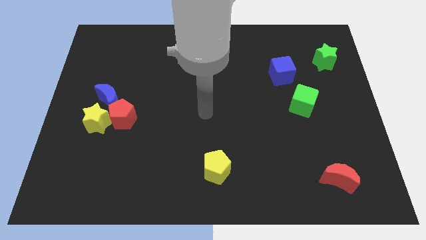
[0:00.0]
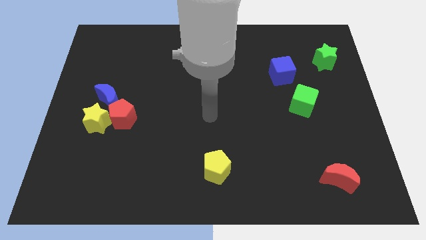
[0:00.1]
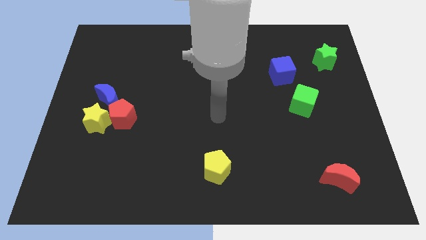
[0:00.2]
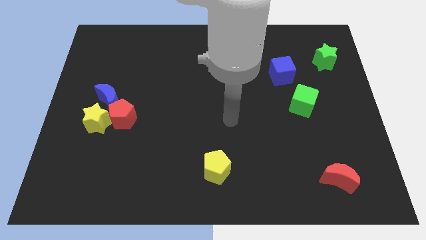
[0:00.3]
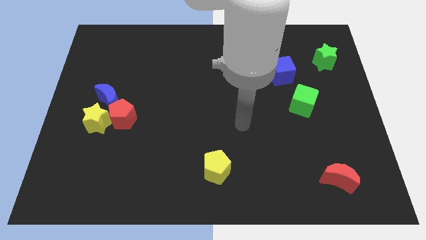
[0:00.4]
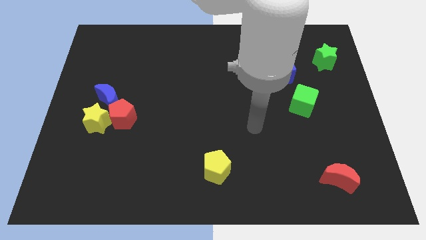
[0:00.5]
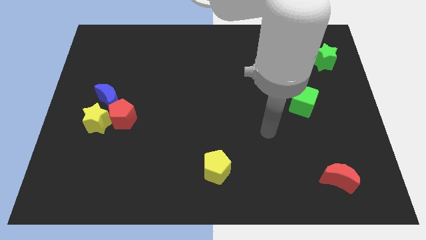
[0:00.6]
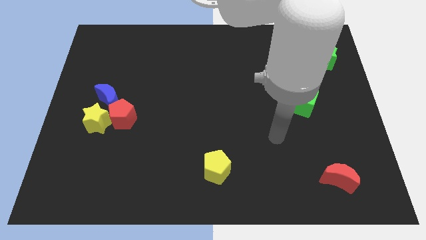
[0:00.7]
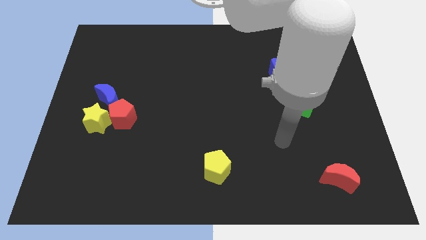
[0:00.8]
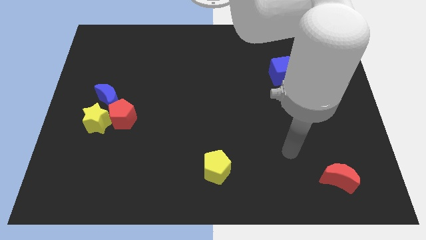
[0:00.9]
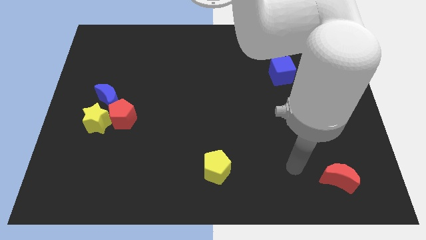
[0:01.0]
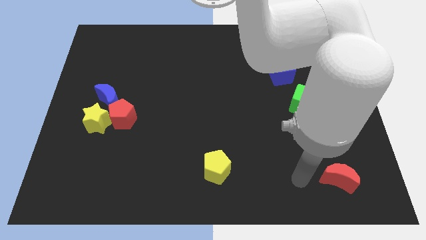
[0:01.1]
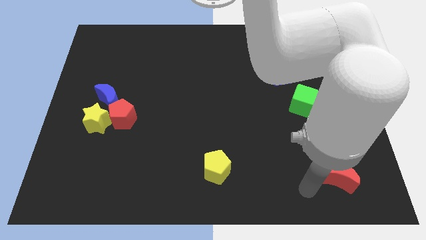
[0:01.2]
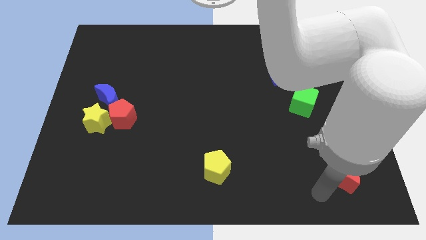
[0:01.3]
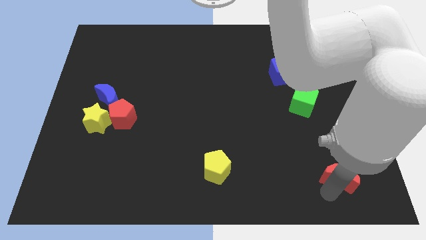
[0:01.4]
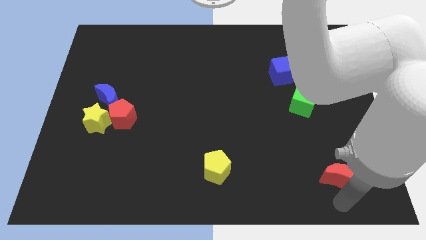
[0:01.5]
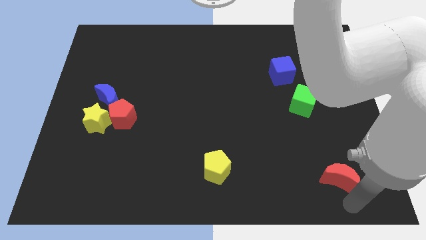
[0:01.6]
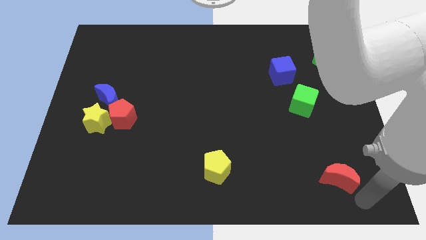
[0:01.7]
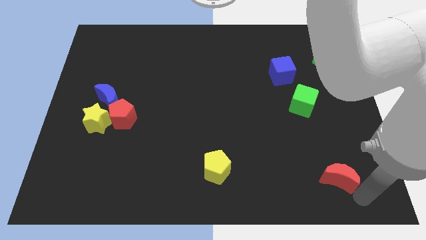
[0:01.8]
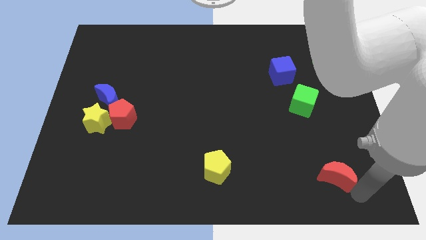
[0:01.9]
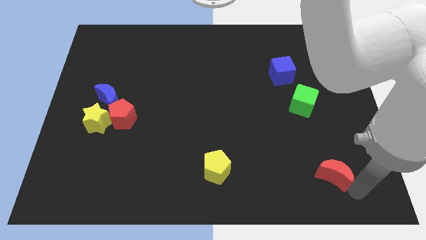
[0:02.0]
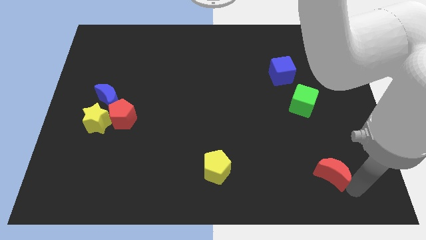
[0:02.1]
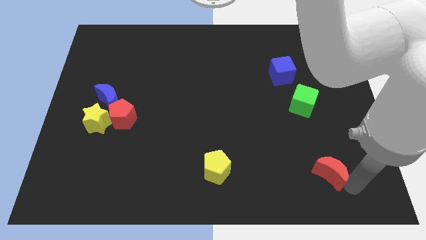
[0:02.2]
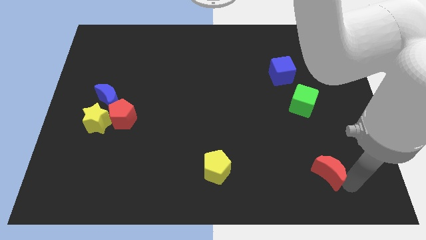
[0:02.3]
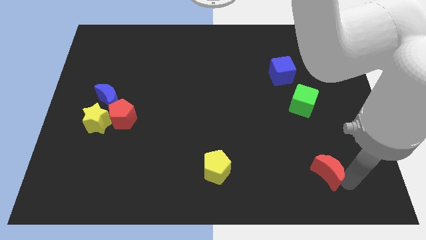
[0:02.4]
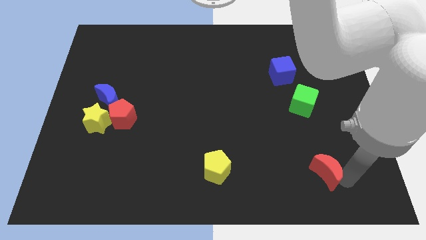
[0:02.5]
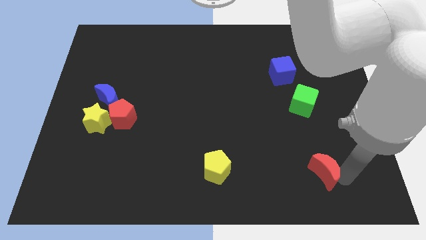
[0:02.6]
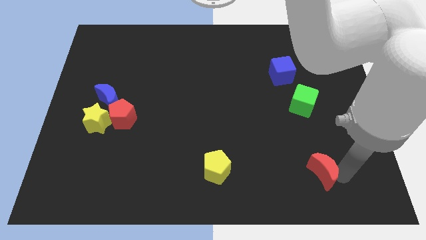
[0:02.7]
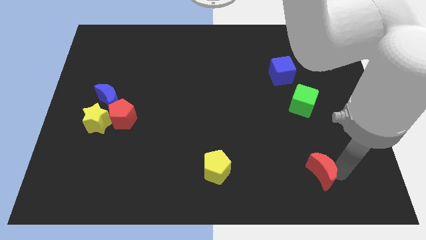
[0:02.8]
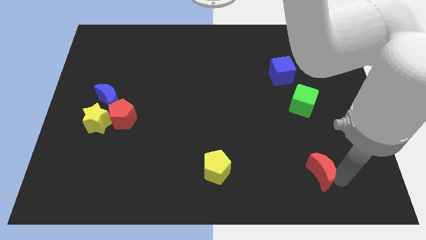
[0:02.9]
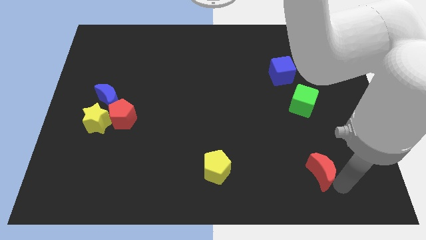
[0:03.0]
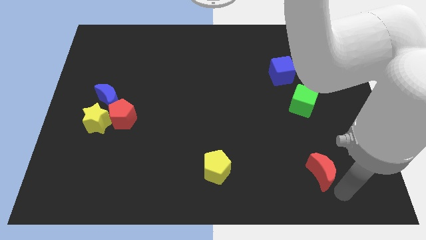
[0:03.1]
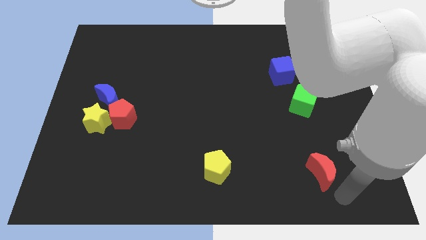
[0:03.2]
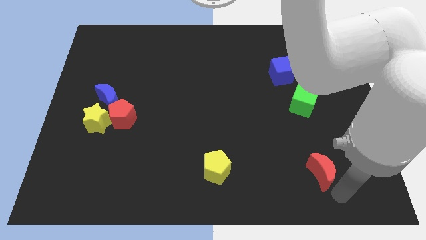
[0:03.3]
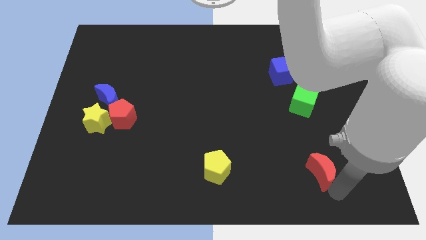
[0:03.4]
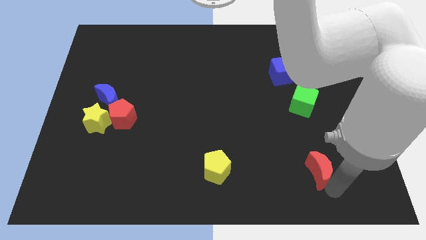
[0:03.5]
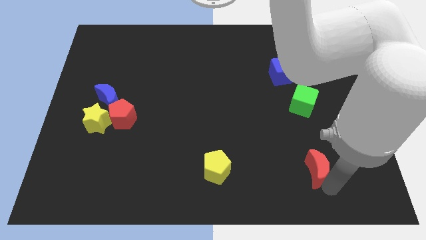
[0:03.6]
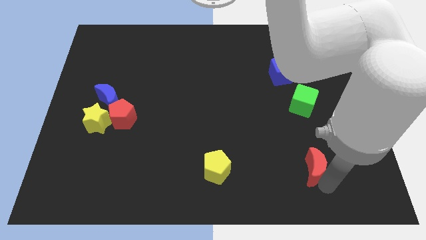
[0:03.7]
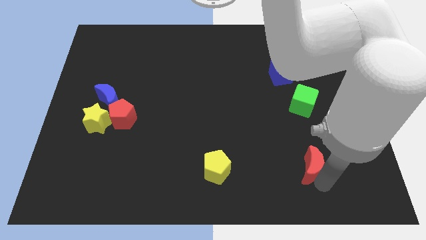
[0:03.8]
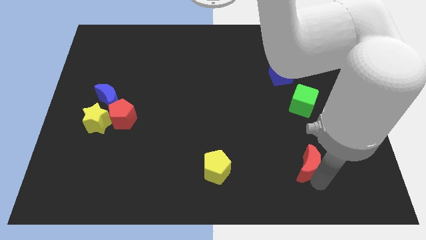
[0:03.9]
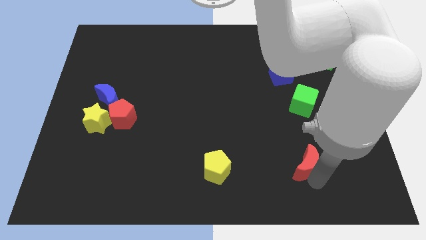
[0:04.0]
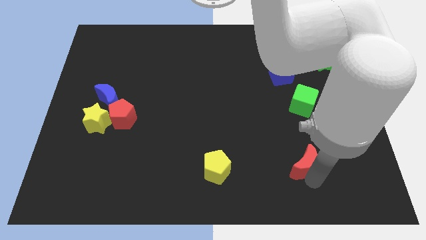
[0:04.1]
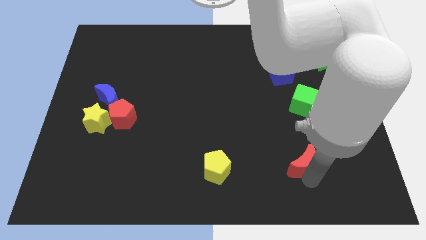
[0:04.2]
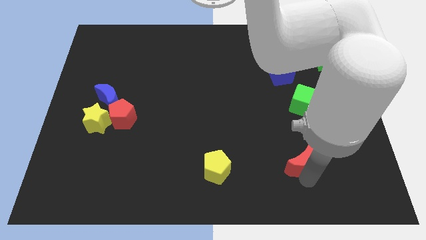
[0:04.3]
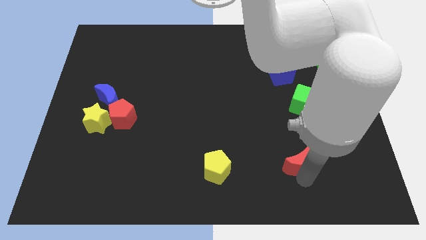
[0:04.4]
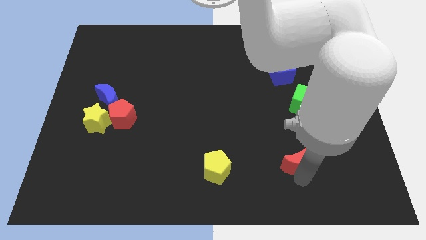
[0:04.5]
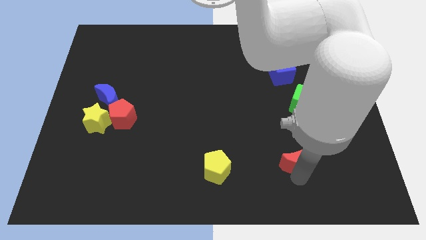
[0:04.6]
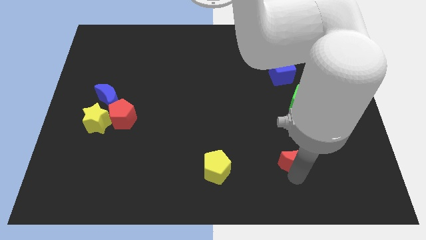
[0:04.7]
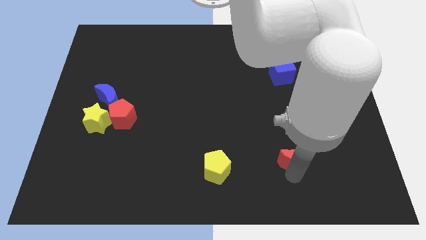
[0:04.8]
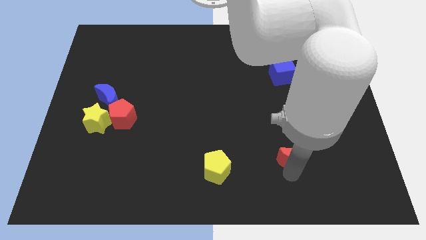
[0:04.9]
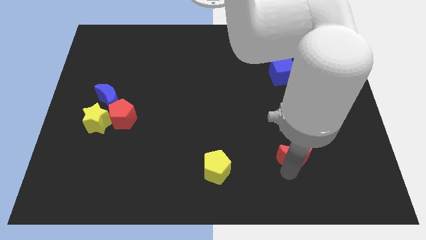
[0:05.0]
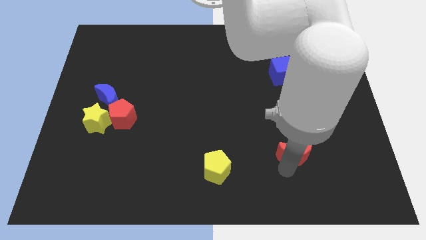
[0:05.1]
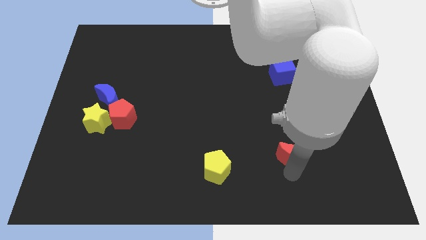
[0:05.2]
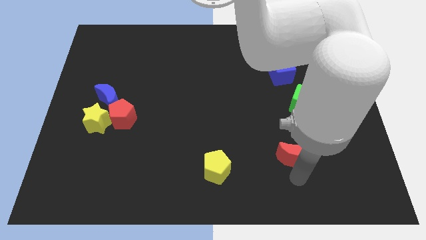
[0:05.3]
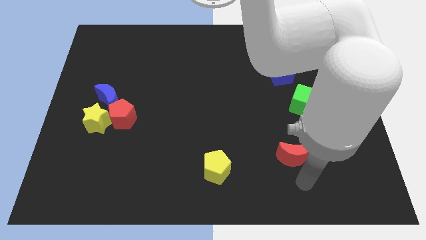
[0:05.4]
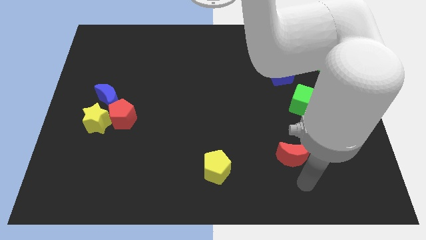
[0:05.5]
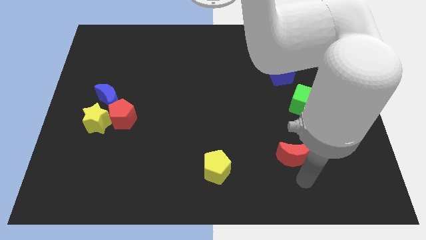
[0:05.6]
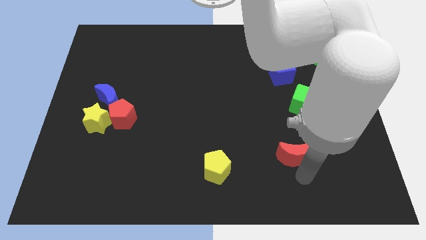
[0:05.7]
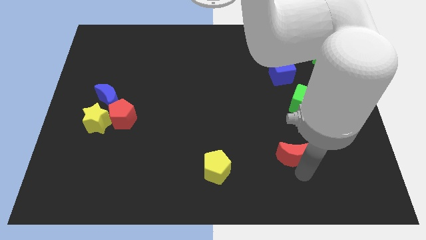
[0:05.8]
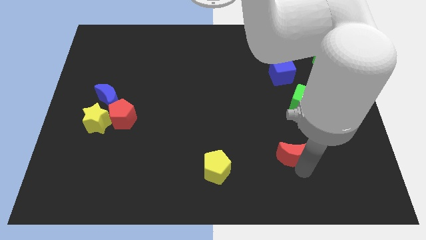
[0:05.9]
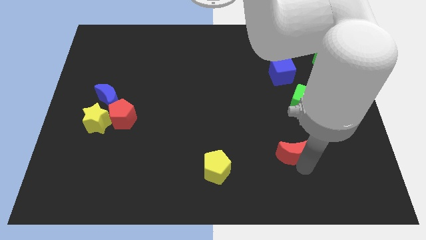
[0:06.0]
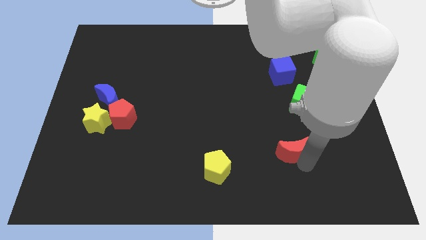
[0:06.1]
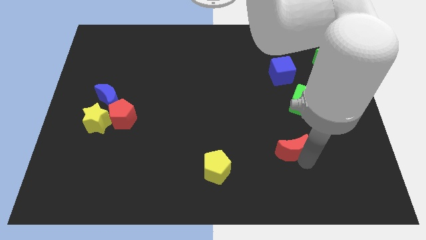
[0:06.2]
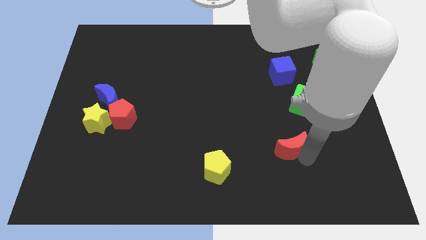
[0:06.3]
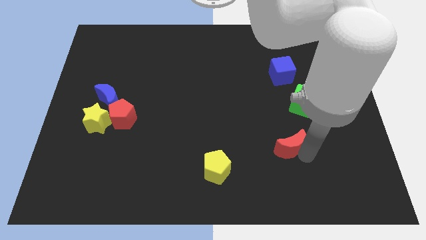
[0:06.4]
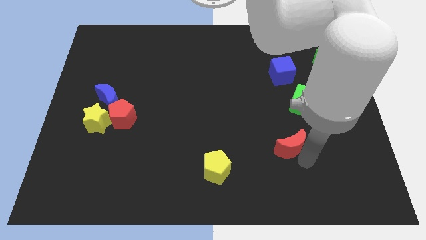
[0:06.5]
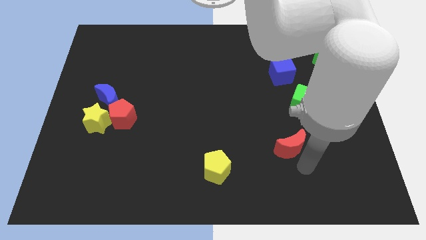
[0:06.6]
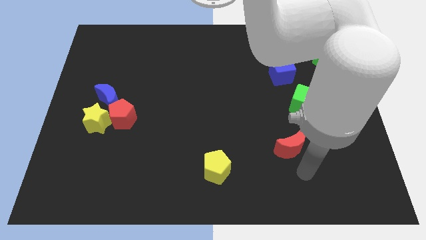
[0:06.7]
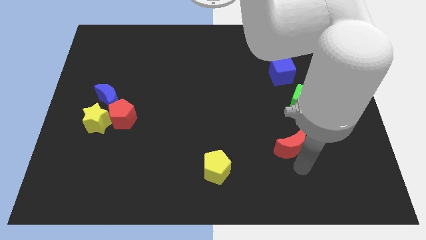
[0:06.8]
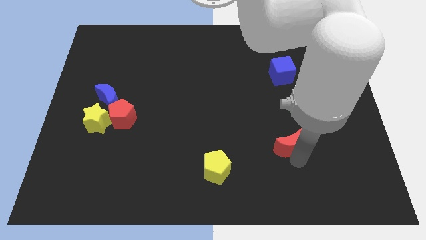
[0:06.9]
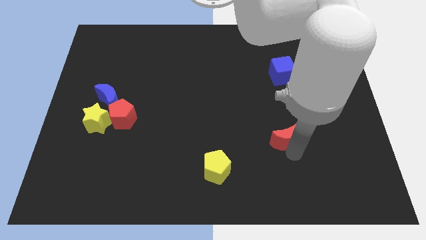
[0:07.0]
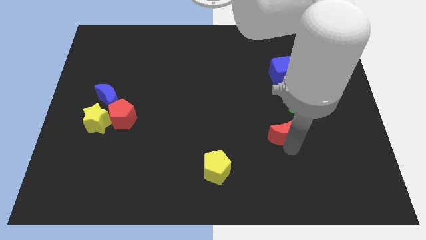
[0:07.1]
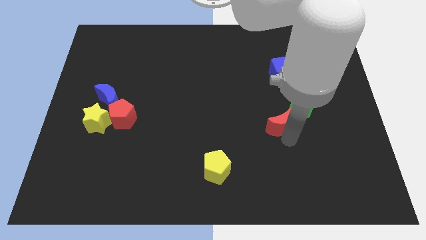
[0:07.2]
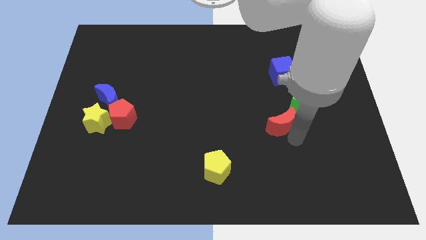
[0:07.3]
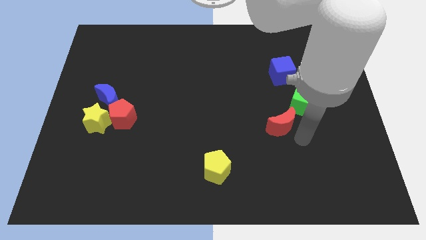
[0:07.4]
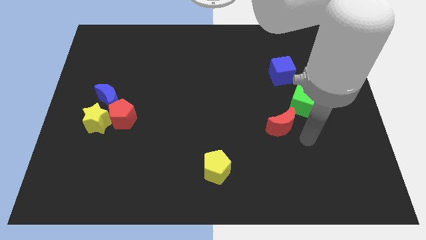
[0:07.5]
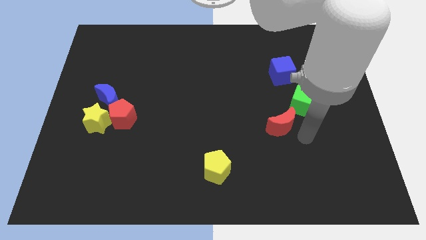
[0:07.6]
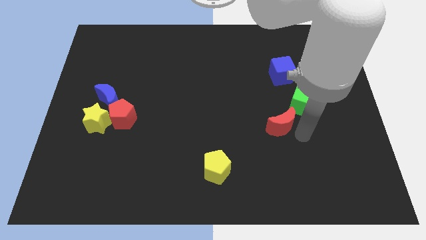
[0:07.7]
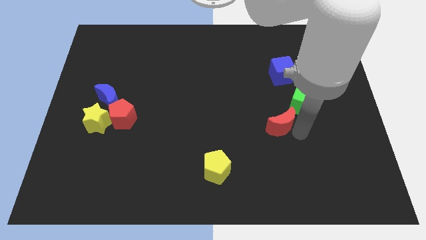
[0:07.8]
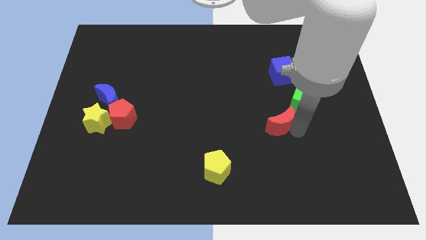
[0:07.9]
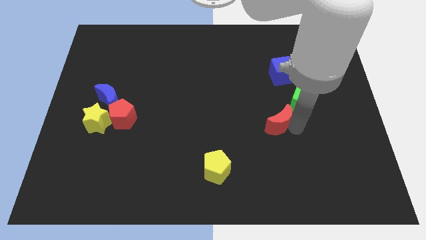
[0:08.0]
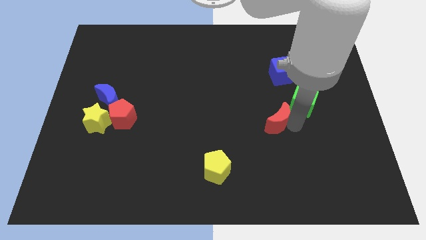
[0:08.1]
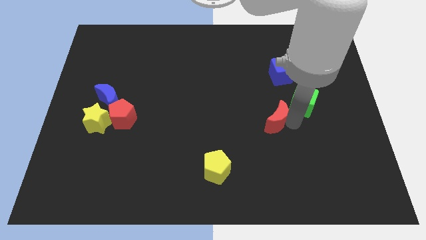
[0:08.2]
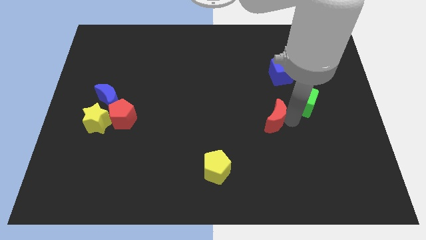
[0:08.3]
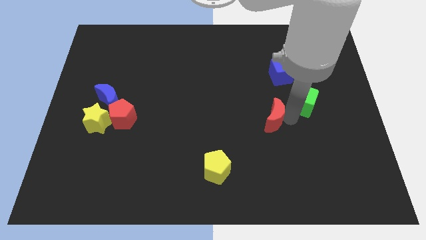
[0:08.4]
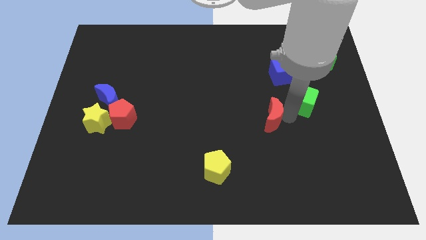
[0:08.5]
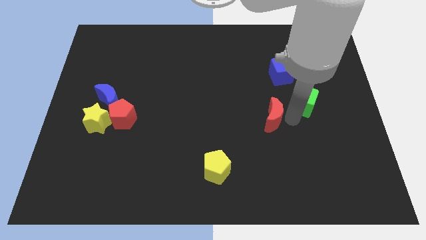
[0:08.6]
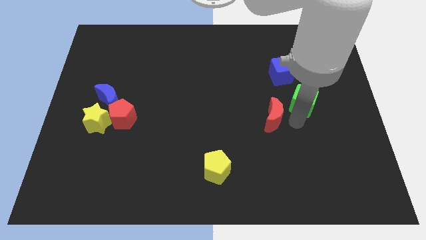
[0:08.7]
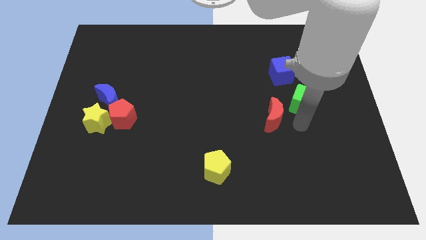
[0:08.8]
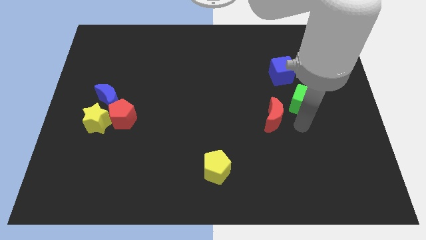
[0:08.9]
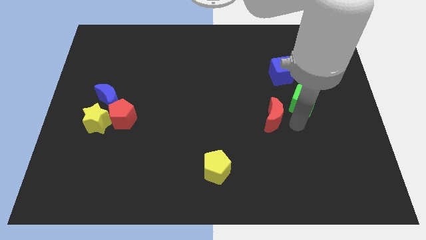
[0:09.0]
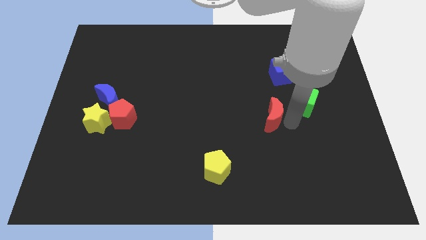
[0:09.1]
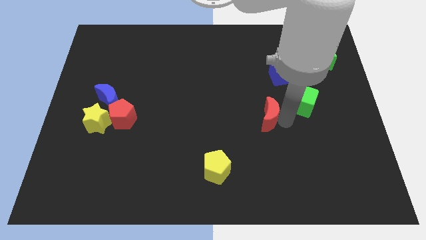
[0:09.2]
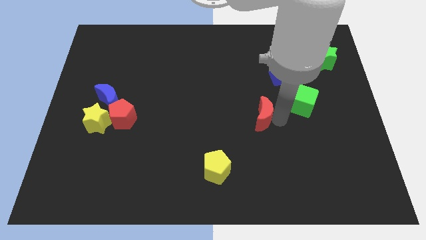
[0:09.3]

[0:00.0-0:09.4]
slide the red moon up and left
